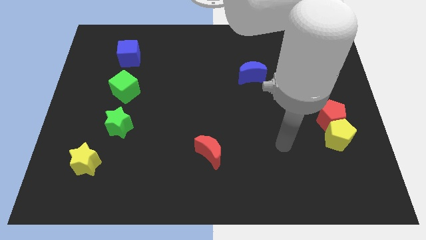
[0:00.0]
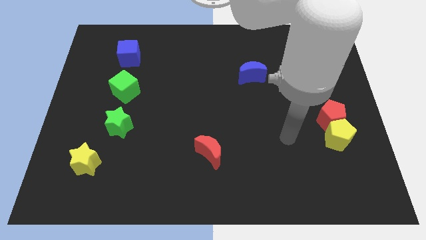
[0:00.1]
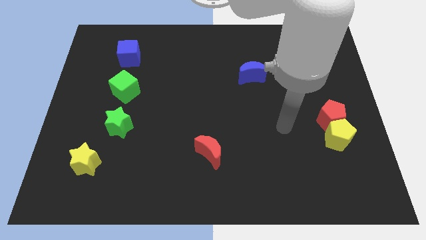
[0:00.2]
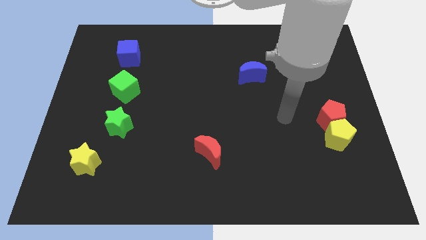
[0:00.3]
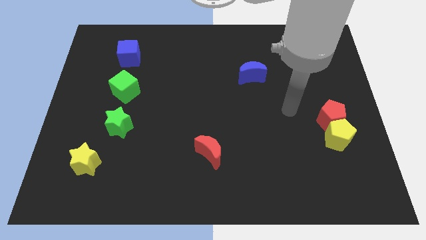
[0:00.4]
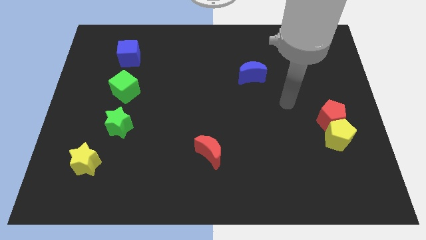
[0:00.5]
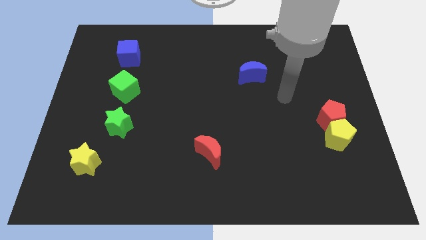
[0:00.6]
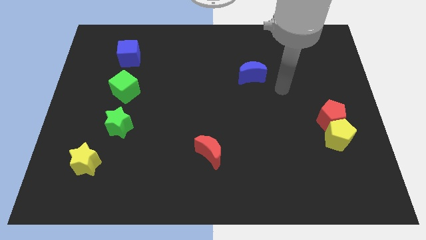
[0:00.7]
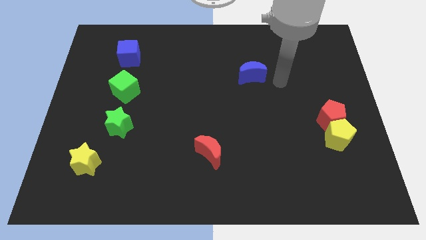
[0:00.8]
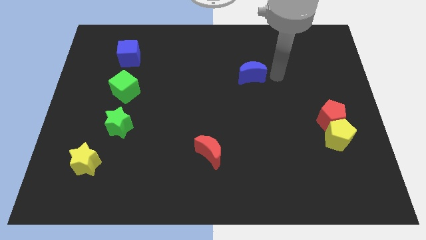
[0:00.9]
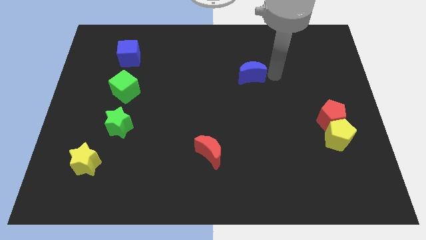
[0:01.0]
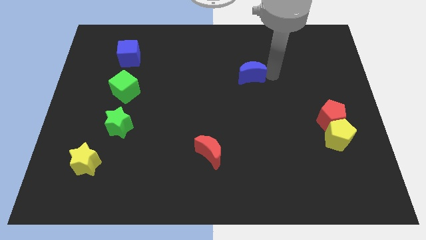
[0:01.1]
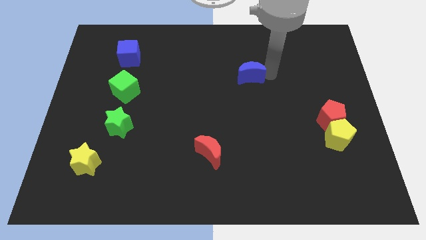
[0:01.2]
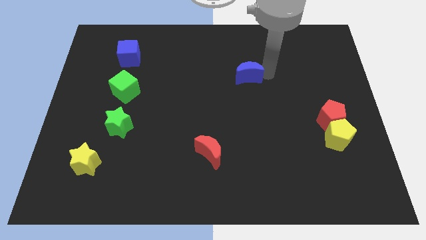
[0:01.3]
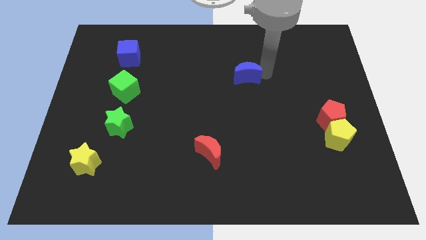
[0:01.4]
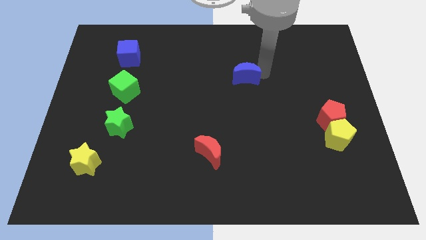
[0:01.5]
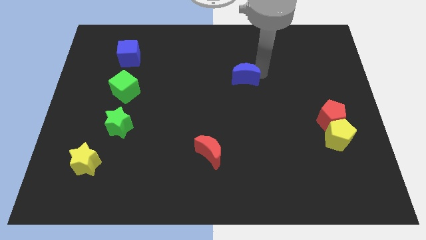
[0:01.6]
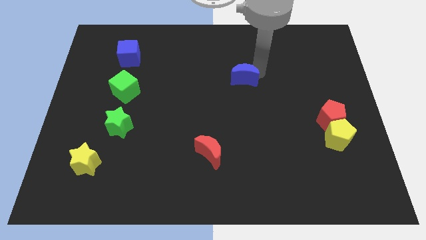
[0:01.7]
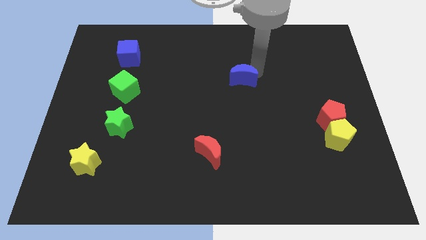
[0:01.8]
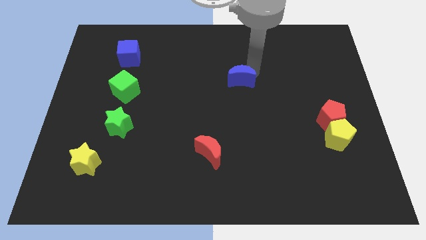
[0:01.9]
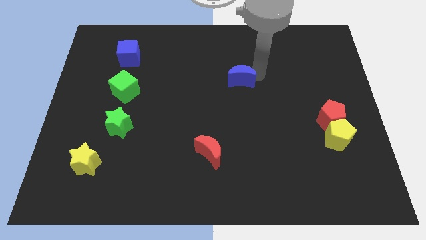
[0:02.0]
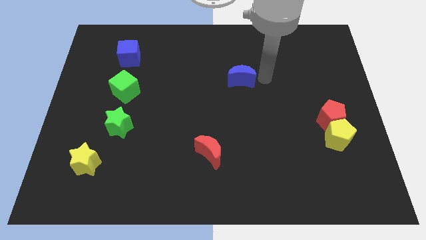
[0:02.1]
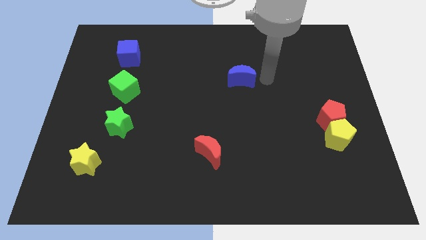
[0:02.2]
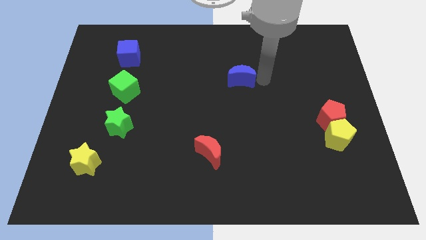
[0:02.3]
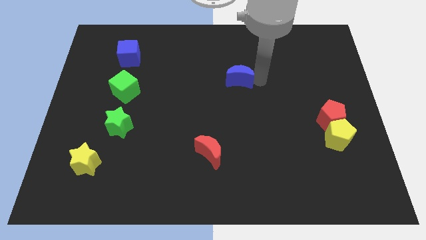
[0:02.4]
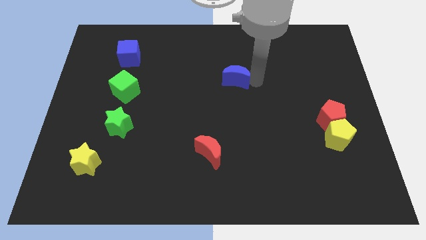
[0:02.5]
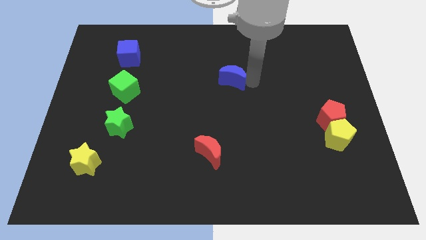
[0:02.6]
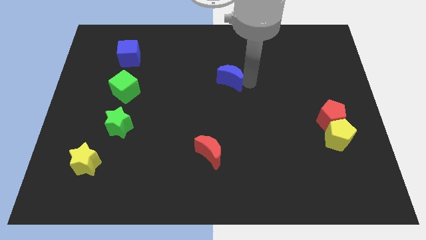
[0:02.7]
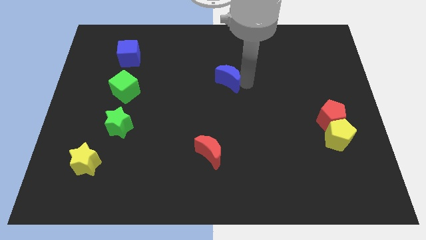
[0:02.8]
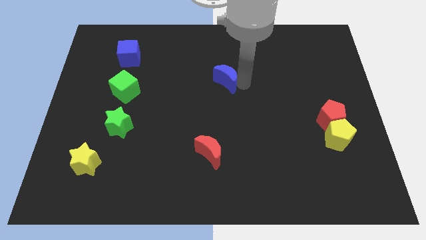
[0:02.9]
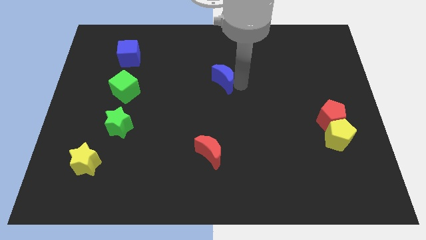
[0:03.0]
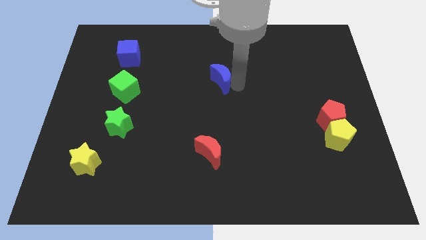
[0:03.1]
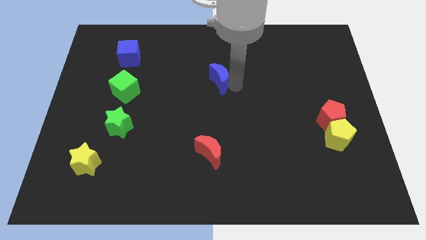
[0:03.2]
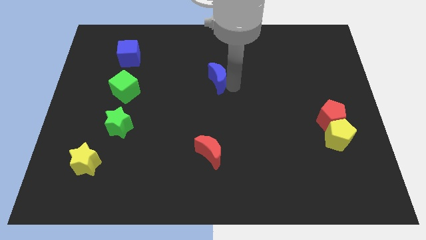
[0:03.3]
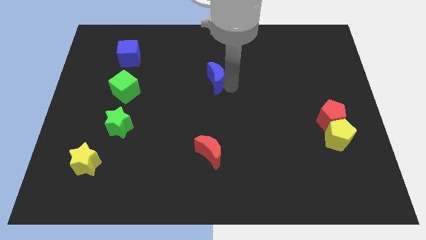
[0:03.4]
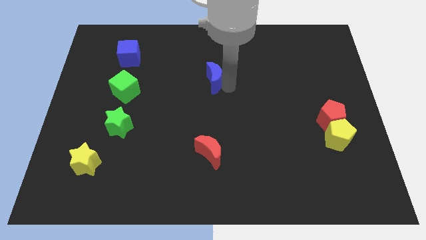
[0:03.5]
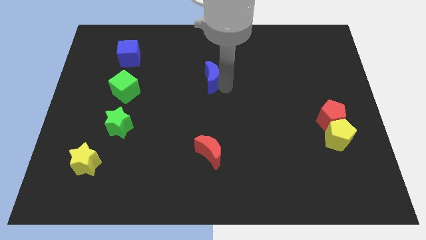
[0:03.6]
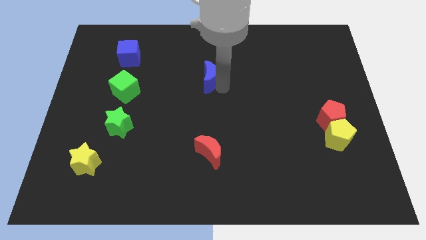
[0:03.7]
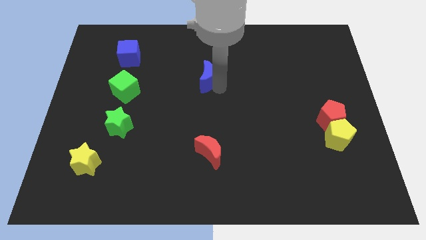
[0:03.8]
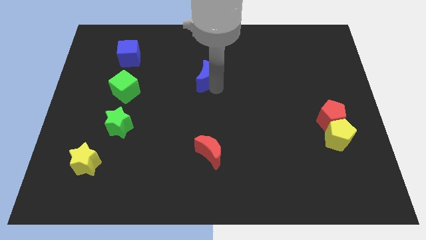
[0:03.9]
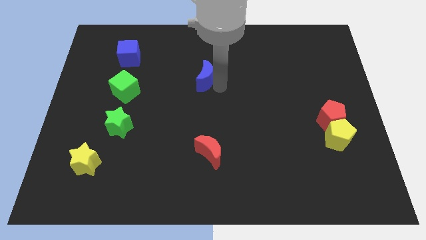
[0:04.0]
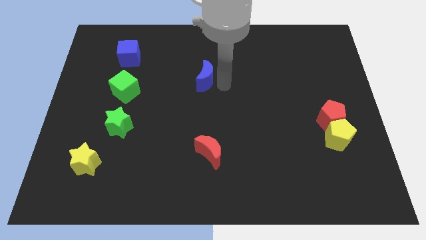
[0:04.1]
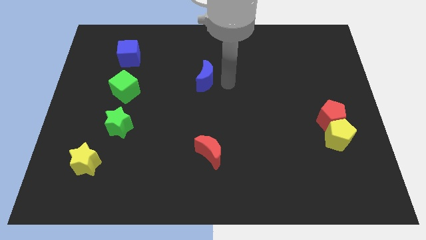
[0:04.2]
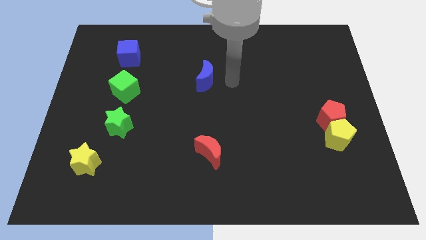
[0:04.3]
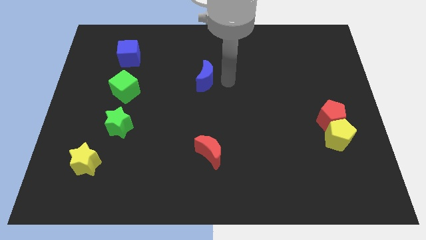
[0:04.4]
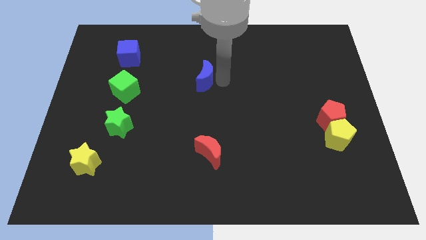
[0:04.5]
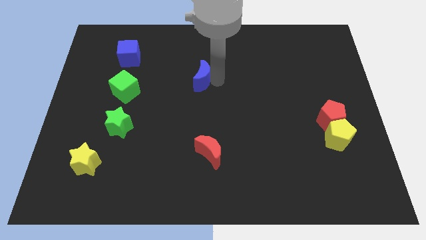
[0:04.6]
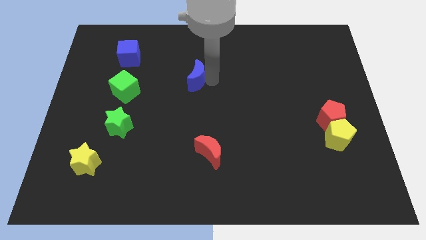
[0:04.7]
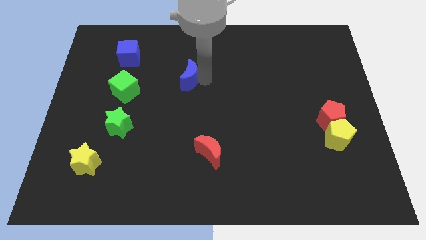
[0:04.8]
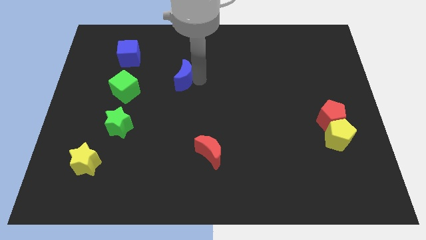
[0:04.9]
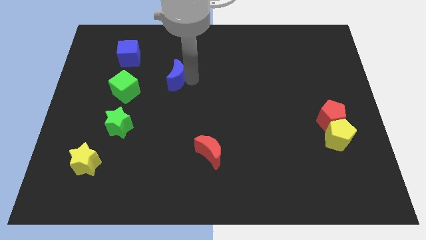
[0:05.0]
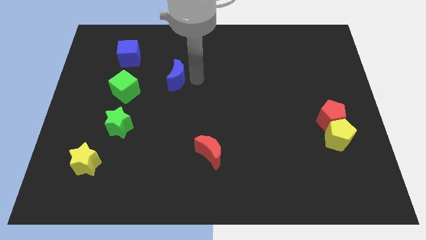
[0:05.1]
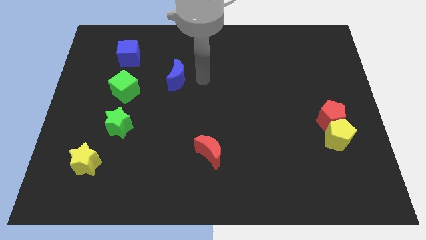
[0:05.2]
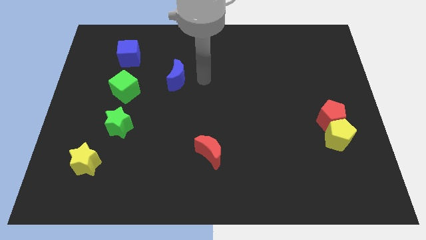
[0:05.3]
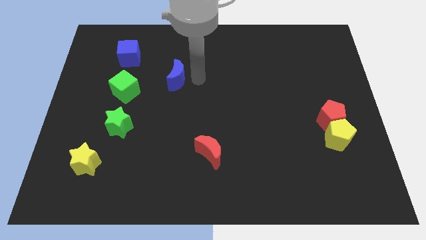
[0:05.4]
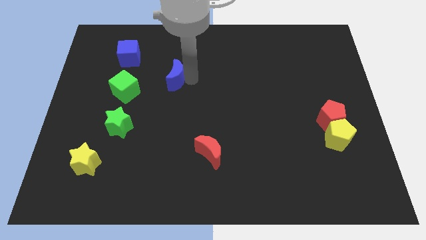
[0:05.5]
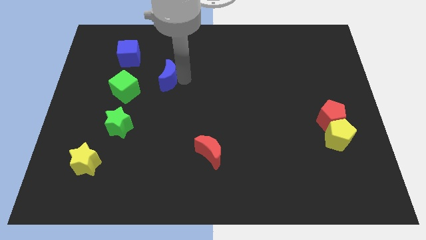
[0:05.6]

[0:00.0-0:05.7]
move the blue moon left

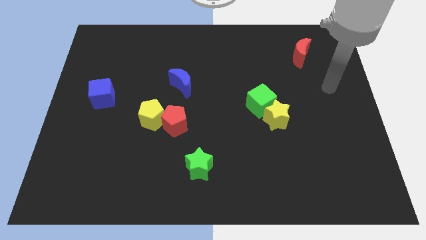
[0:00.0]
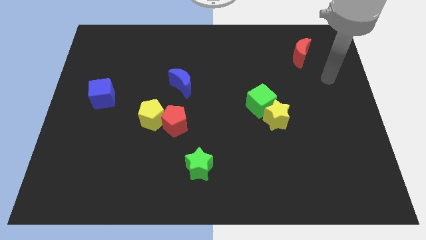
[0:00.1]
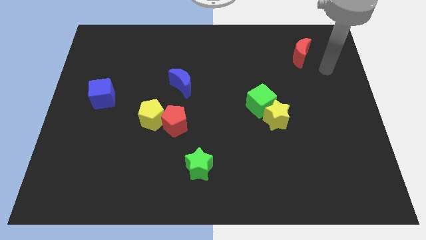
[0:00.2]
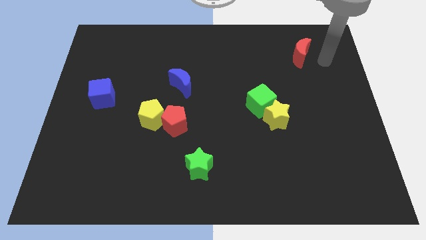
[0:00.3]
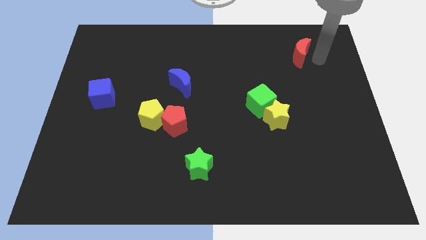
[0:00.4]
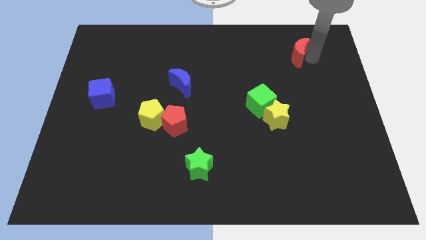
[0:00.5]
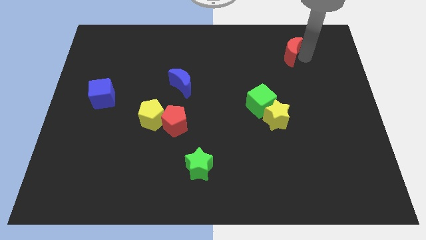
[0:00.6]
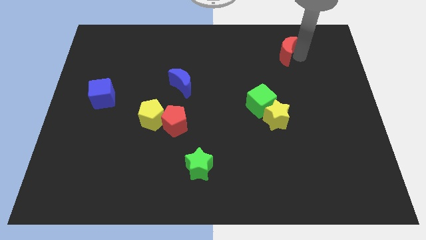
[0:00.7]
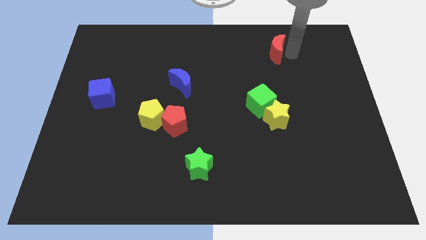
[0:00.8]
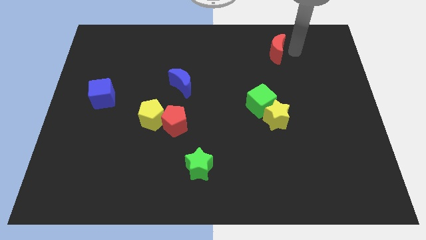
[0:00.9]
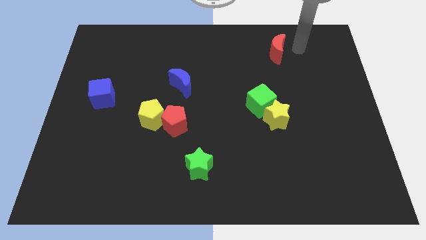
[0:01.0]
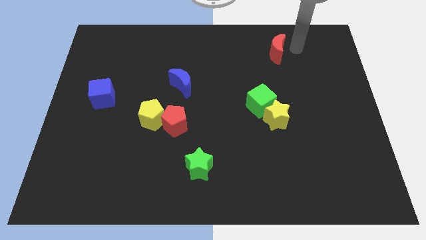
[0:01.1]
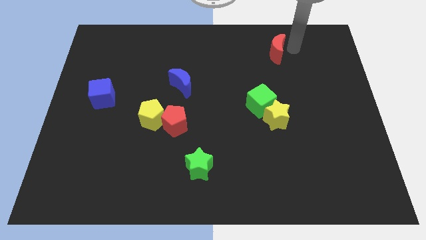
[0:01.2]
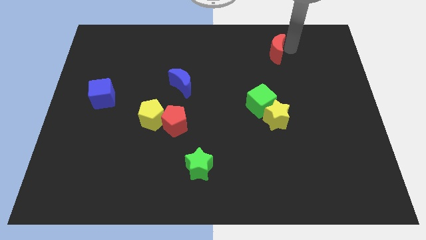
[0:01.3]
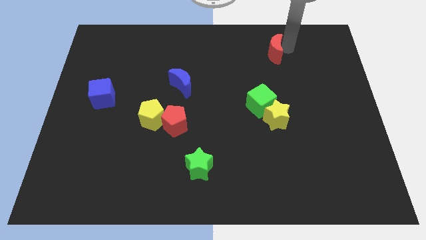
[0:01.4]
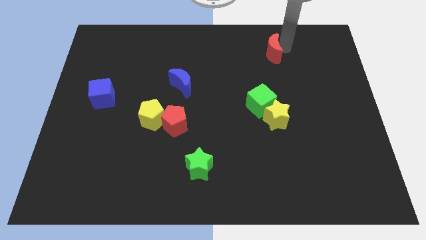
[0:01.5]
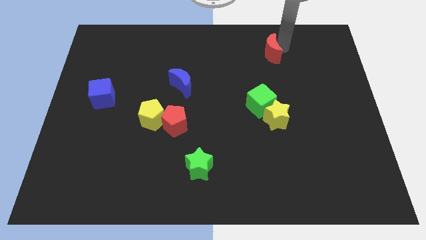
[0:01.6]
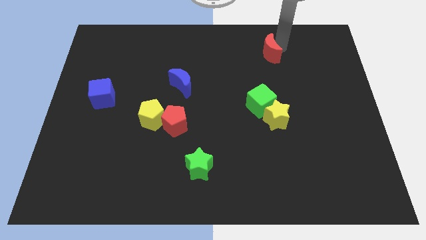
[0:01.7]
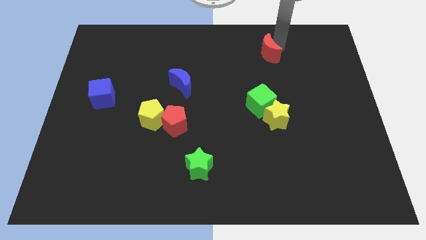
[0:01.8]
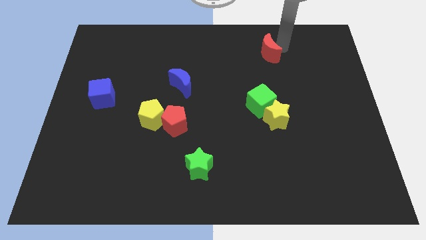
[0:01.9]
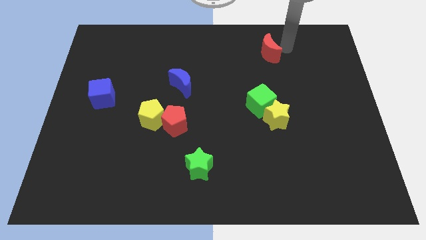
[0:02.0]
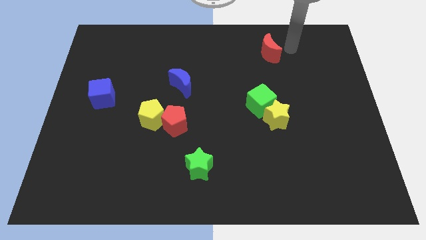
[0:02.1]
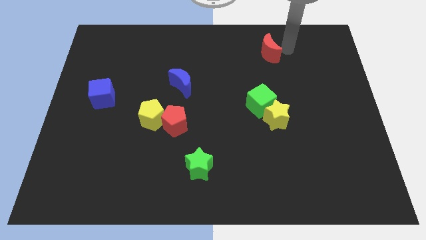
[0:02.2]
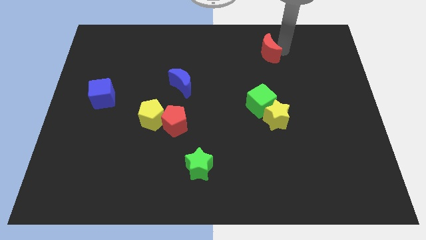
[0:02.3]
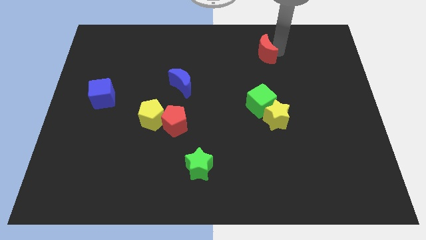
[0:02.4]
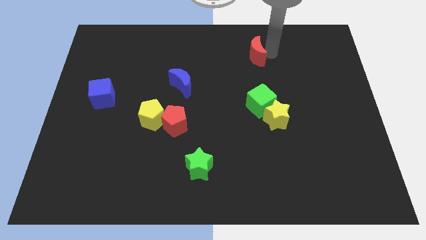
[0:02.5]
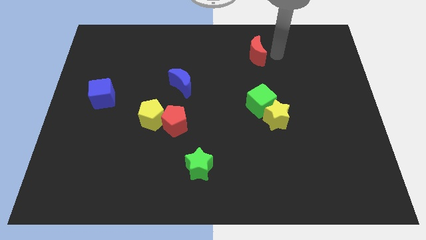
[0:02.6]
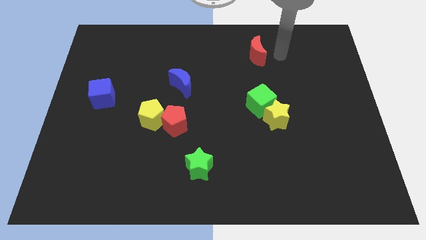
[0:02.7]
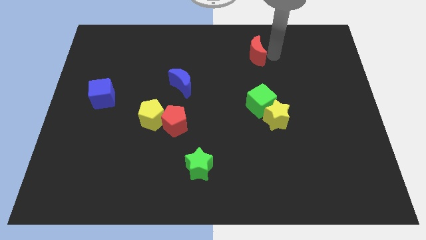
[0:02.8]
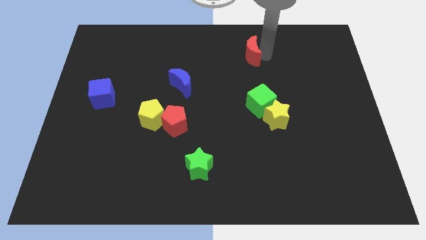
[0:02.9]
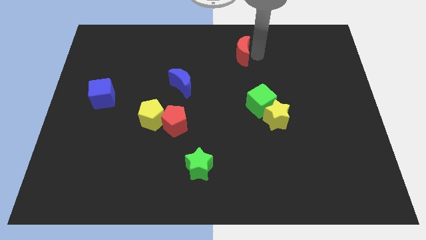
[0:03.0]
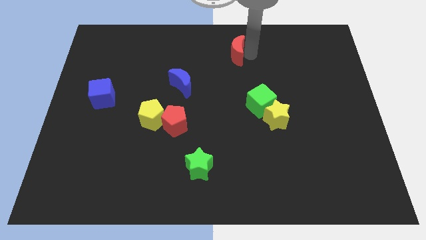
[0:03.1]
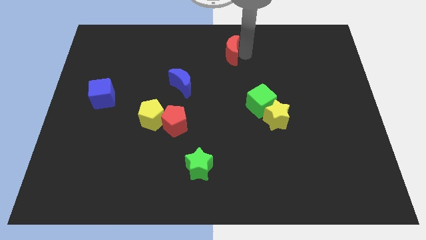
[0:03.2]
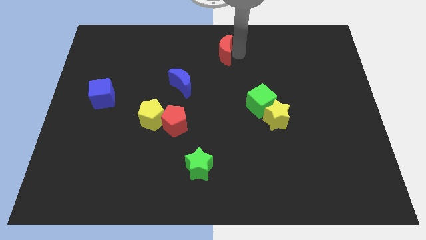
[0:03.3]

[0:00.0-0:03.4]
move the red moon left
